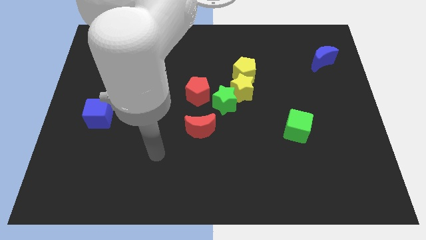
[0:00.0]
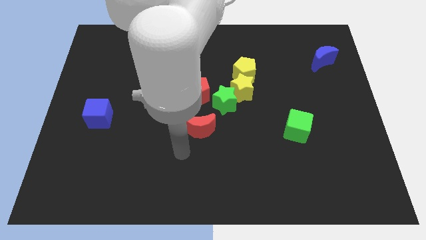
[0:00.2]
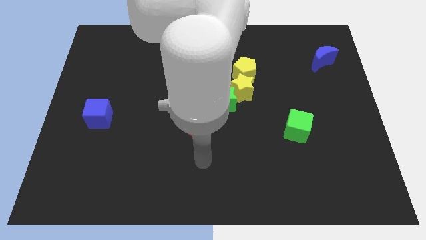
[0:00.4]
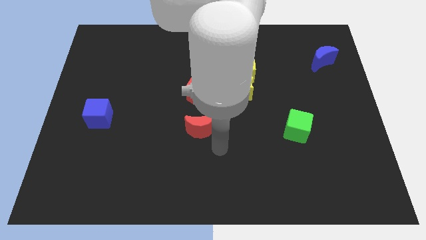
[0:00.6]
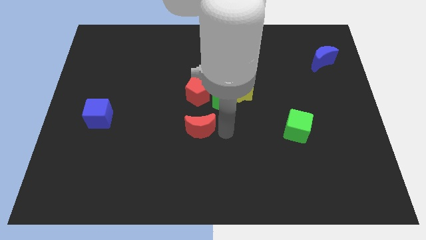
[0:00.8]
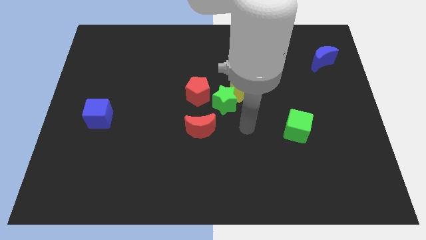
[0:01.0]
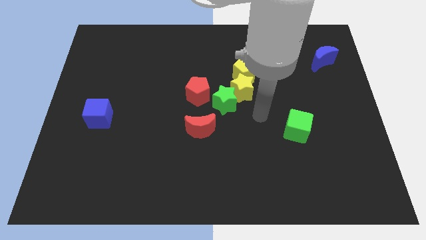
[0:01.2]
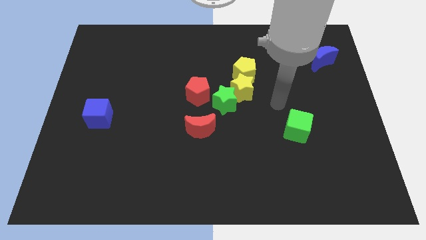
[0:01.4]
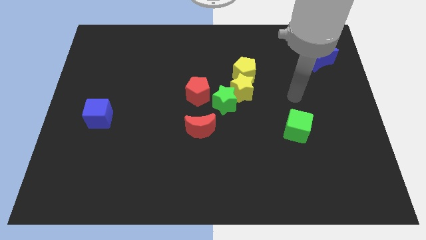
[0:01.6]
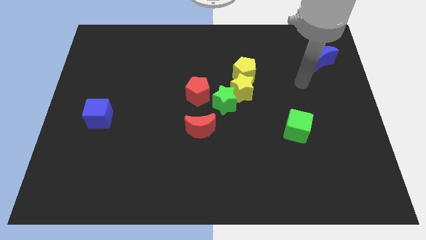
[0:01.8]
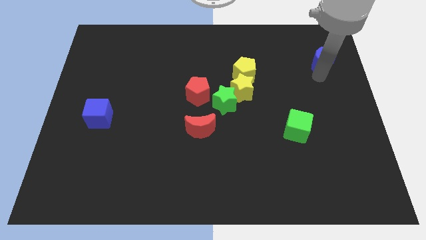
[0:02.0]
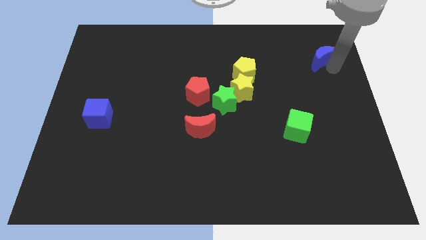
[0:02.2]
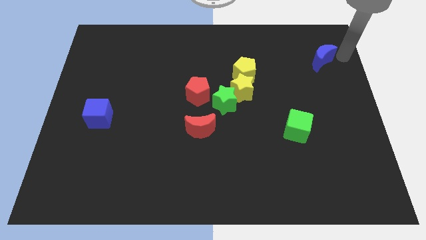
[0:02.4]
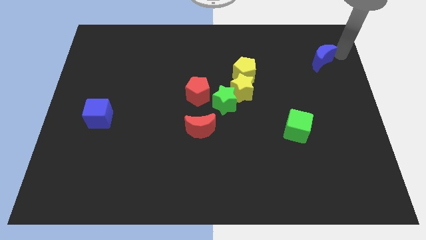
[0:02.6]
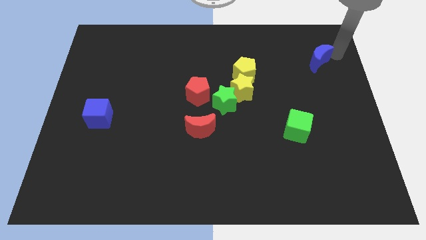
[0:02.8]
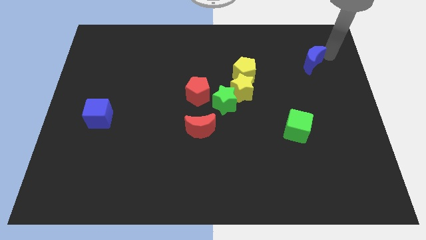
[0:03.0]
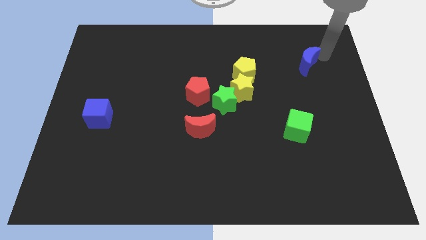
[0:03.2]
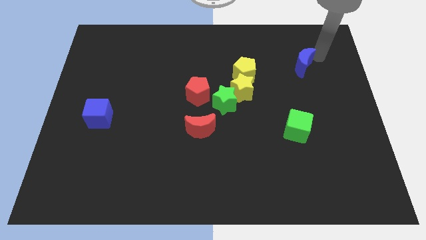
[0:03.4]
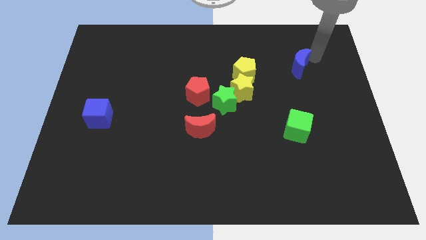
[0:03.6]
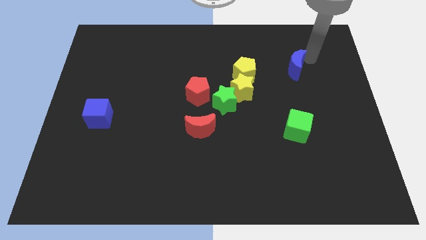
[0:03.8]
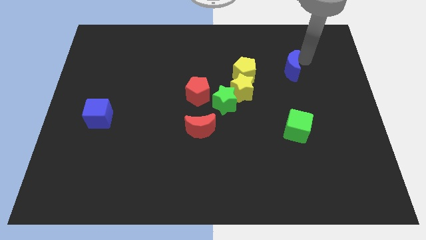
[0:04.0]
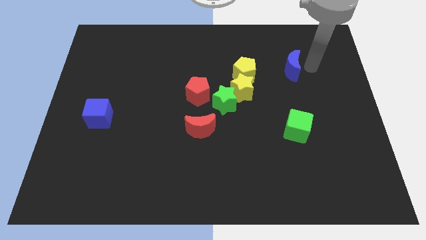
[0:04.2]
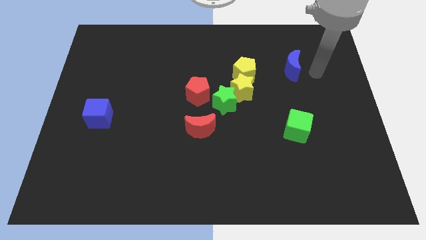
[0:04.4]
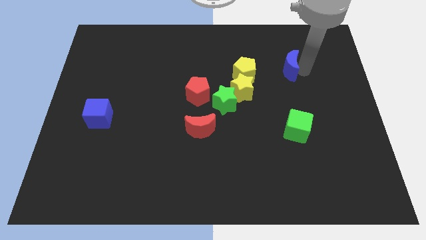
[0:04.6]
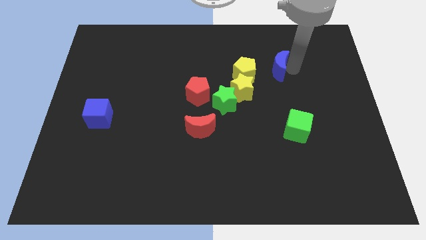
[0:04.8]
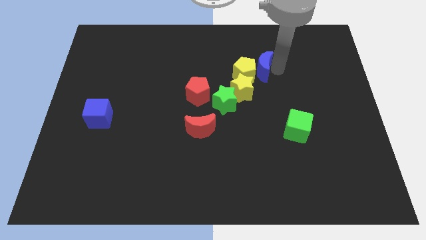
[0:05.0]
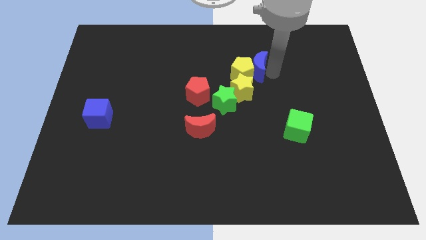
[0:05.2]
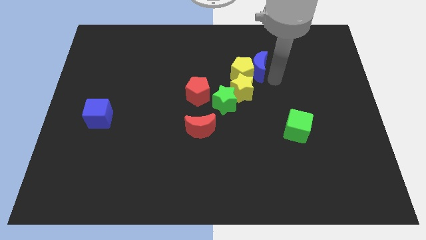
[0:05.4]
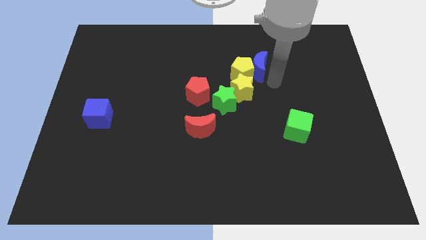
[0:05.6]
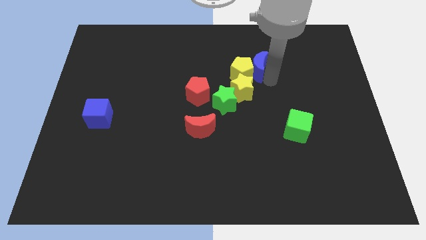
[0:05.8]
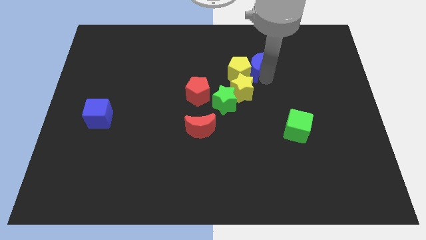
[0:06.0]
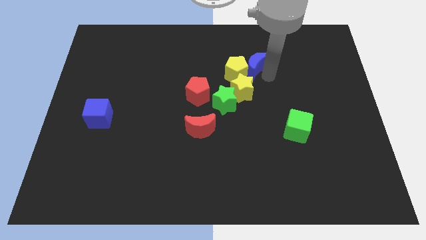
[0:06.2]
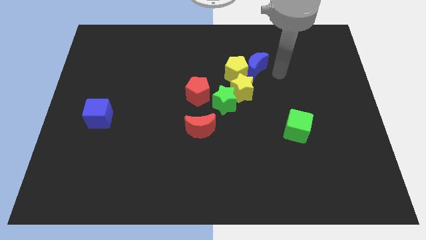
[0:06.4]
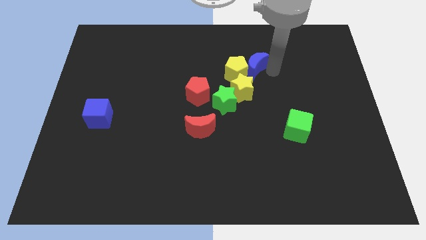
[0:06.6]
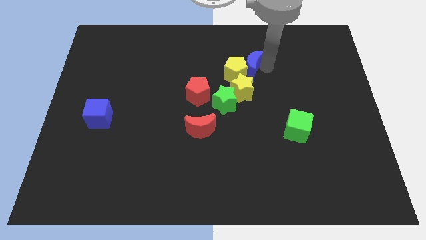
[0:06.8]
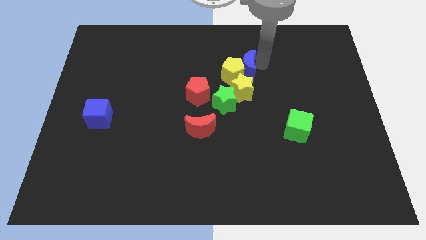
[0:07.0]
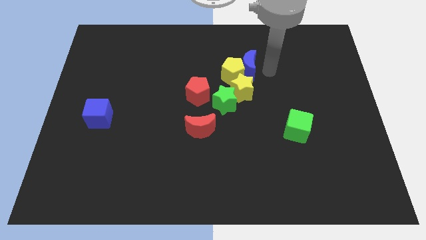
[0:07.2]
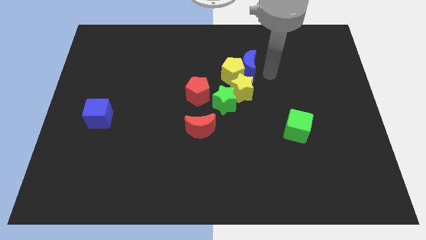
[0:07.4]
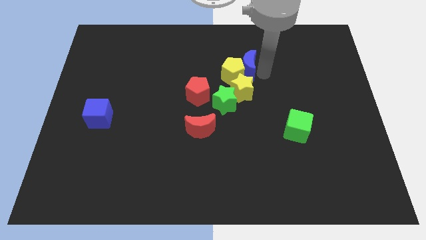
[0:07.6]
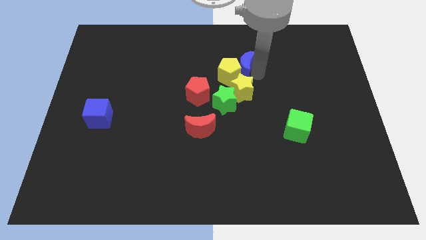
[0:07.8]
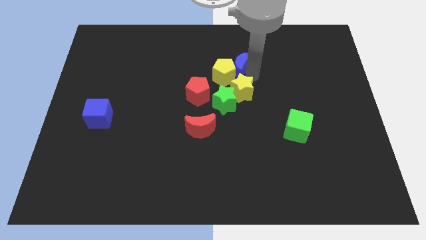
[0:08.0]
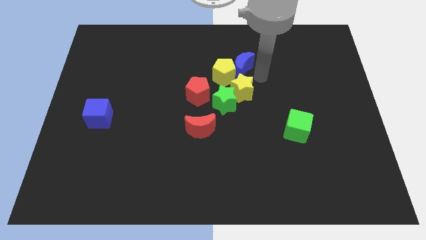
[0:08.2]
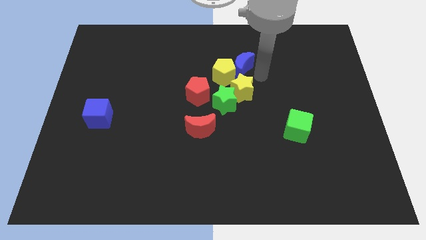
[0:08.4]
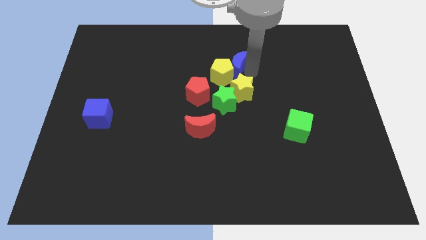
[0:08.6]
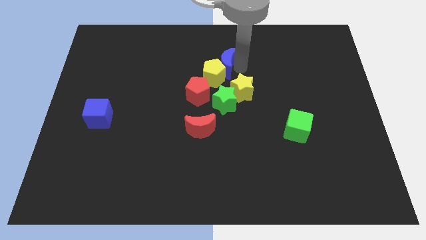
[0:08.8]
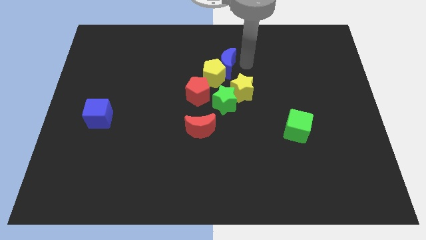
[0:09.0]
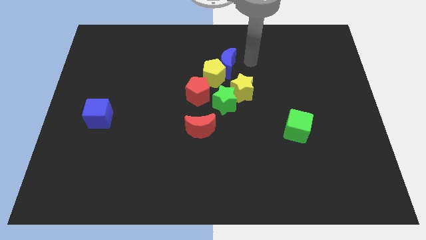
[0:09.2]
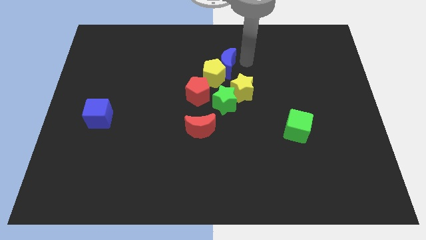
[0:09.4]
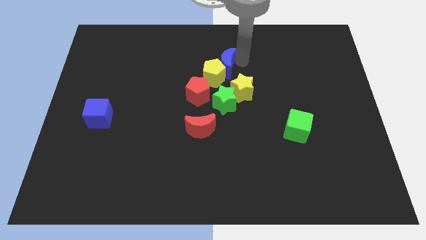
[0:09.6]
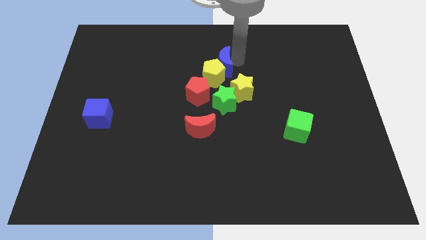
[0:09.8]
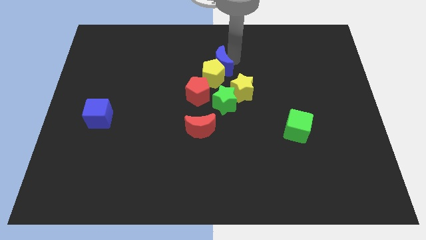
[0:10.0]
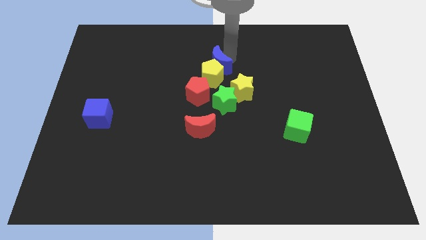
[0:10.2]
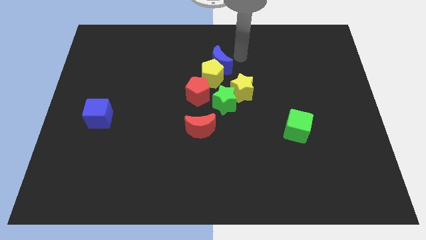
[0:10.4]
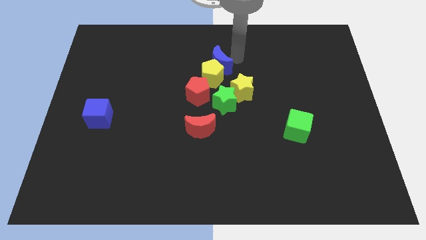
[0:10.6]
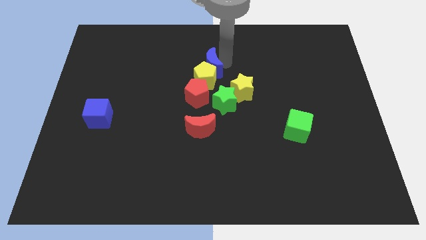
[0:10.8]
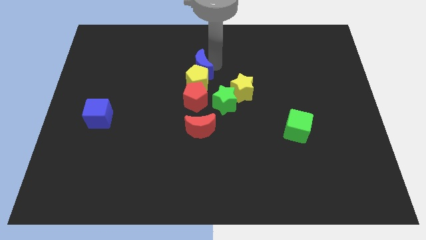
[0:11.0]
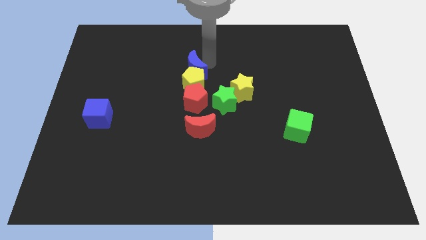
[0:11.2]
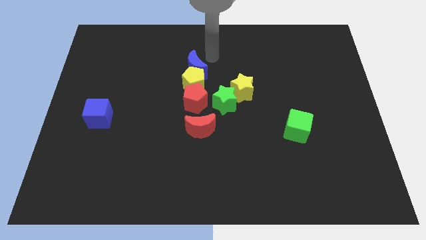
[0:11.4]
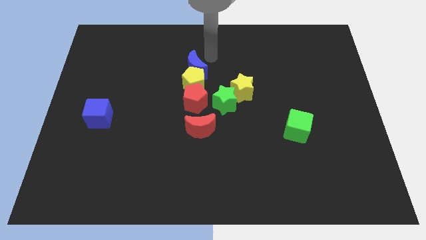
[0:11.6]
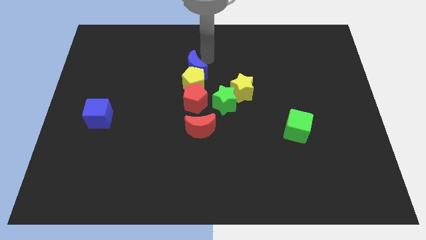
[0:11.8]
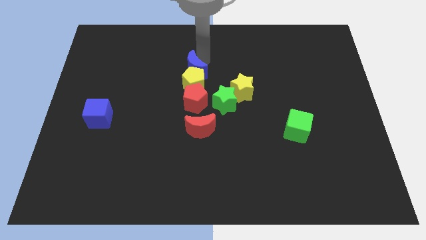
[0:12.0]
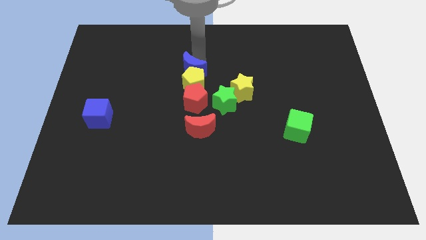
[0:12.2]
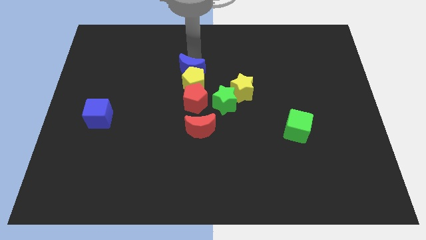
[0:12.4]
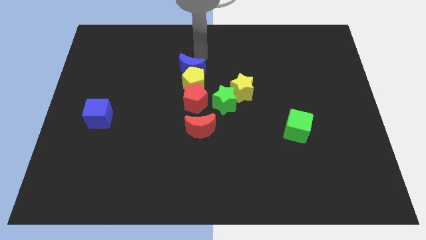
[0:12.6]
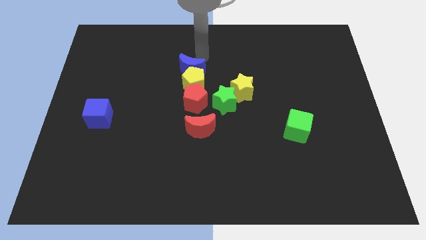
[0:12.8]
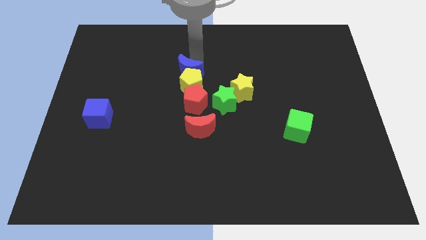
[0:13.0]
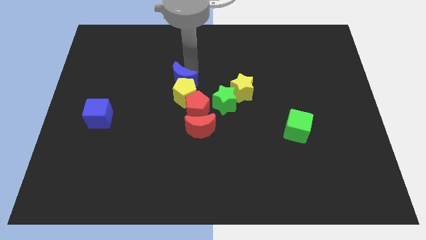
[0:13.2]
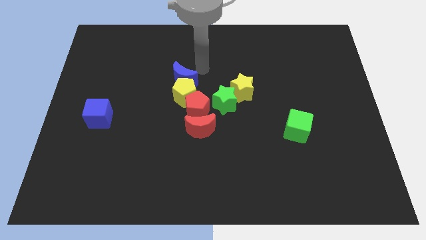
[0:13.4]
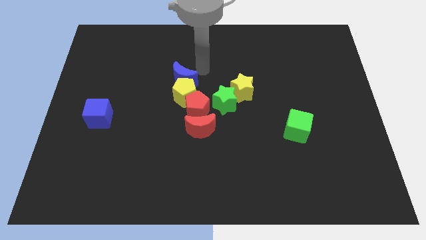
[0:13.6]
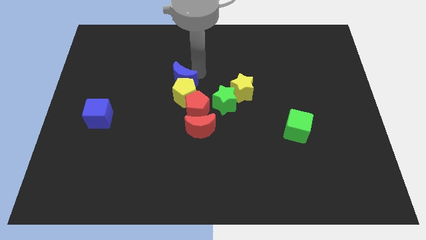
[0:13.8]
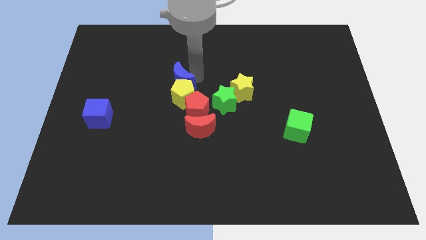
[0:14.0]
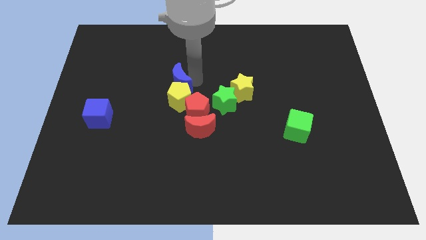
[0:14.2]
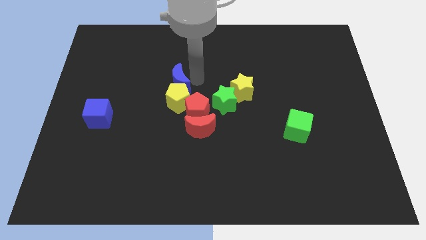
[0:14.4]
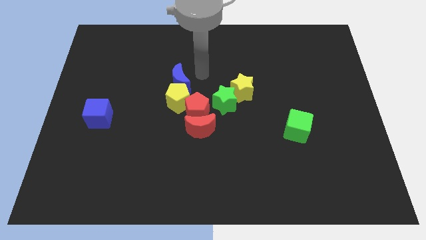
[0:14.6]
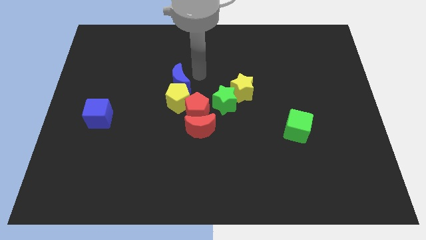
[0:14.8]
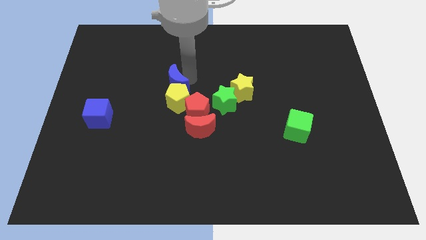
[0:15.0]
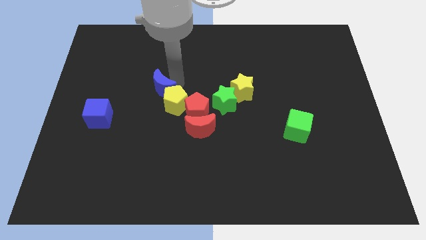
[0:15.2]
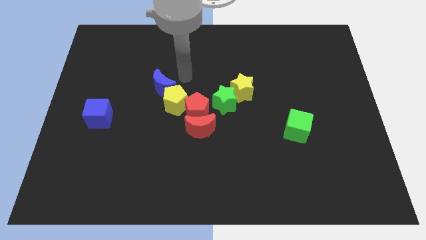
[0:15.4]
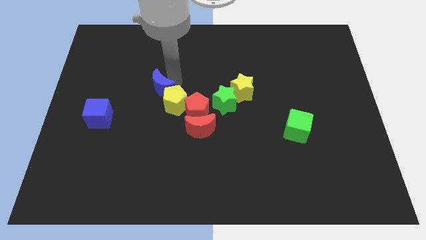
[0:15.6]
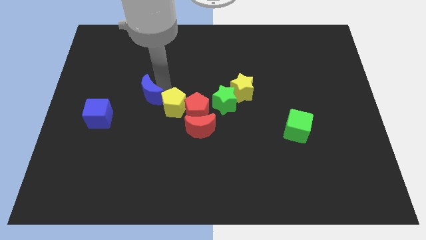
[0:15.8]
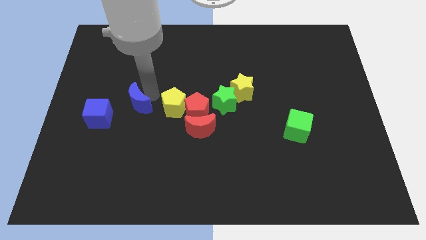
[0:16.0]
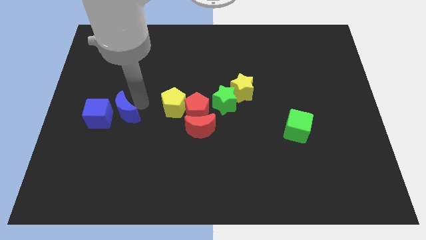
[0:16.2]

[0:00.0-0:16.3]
push the blue moon to the blue cube
